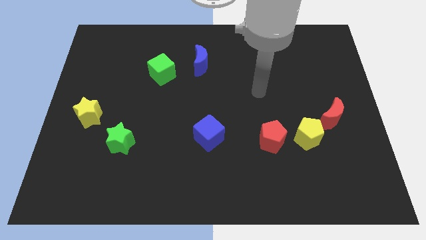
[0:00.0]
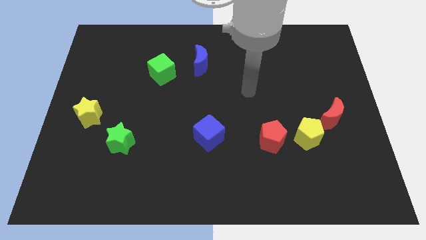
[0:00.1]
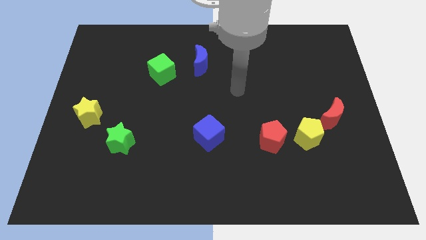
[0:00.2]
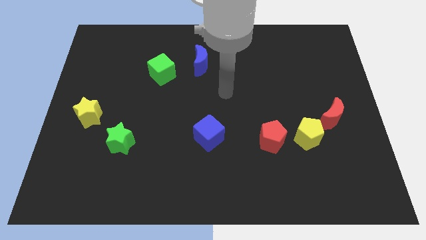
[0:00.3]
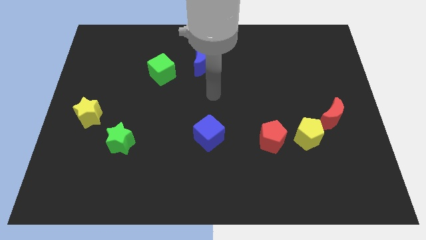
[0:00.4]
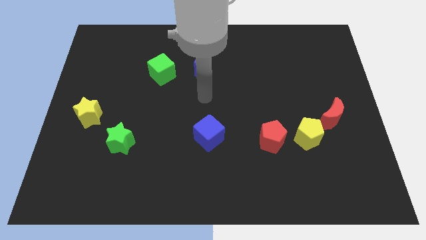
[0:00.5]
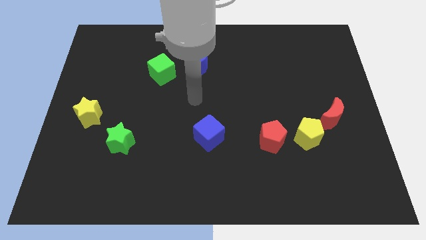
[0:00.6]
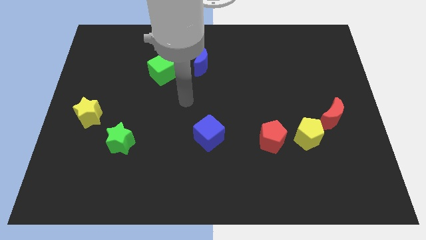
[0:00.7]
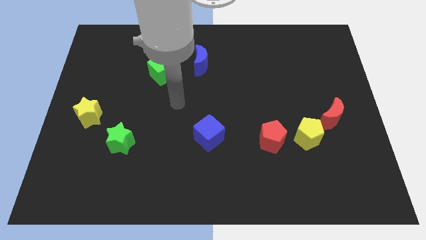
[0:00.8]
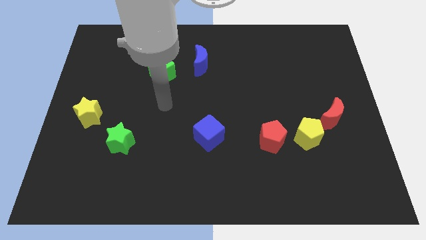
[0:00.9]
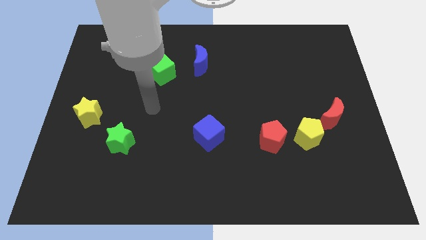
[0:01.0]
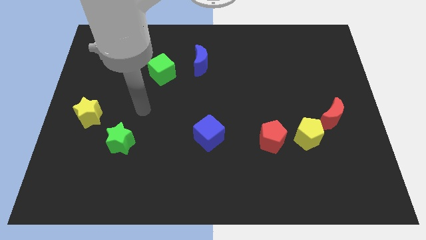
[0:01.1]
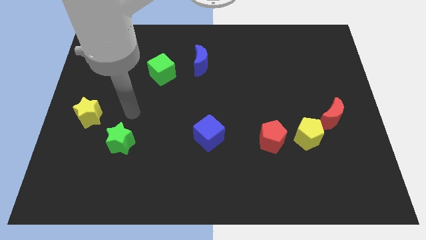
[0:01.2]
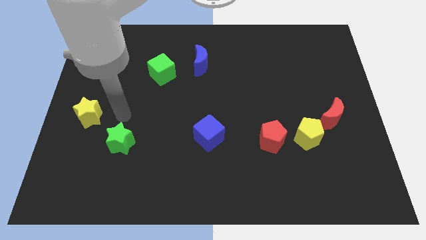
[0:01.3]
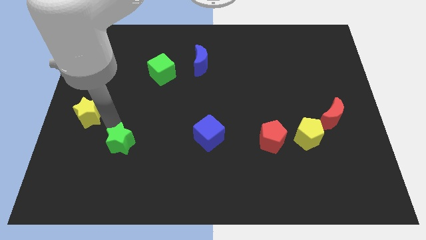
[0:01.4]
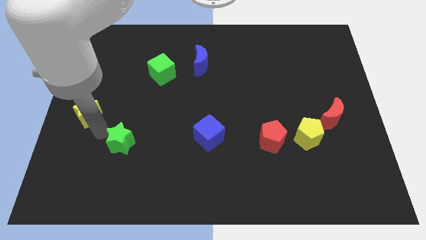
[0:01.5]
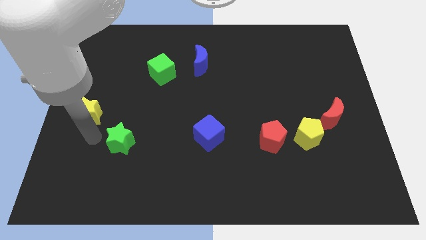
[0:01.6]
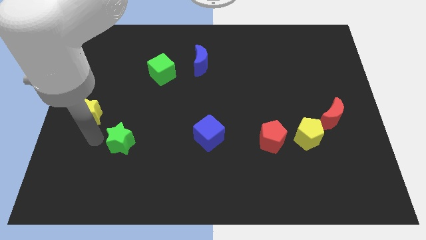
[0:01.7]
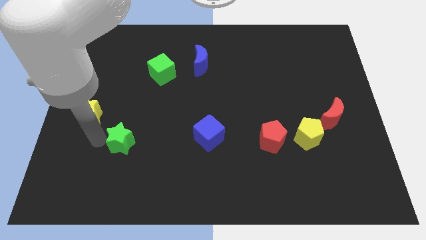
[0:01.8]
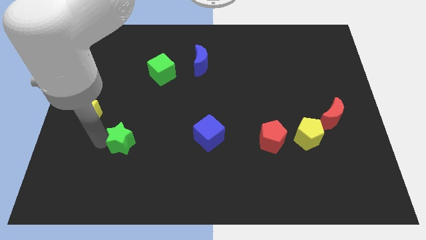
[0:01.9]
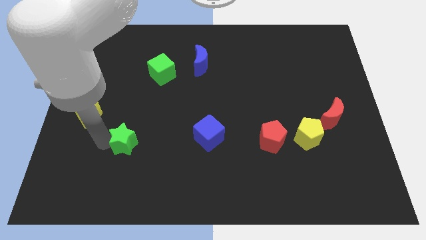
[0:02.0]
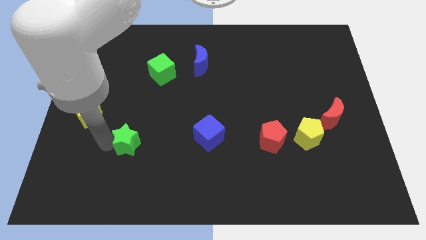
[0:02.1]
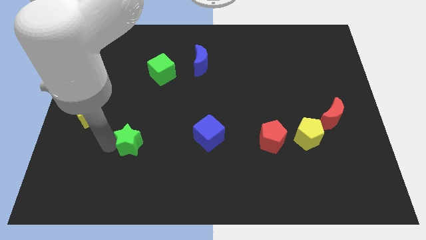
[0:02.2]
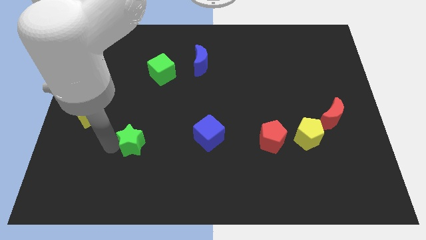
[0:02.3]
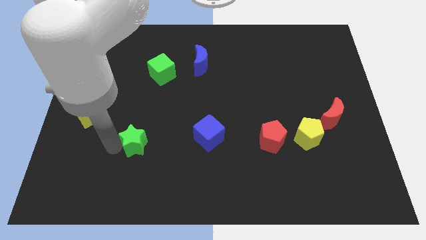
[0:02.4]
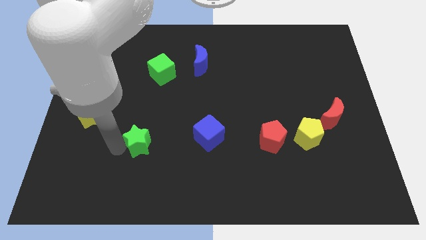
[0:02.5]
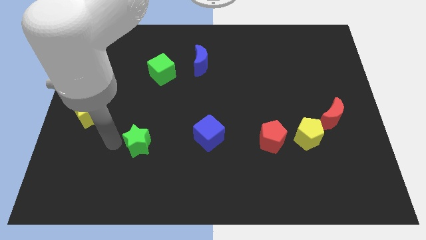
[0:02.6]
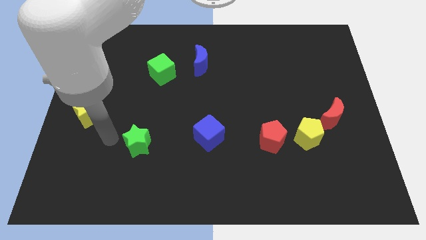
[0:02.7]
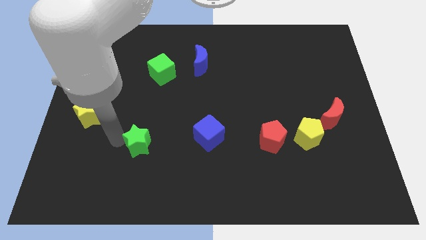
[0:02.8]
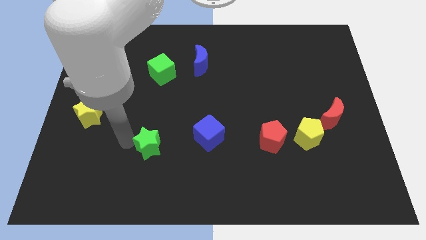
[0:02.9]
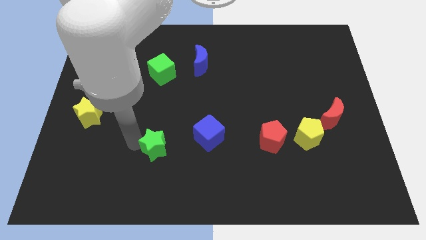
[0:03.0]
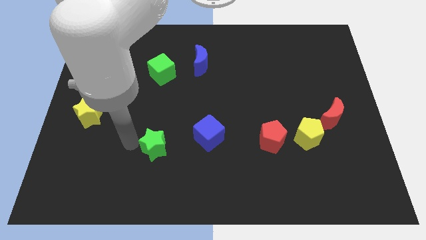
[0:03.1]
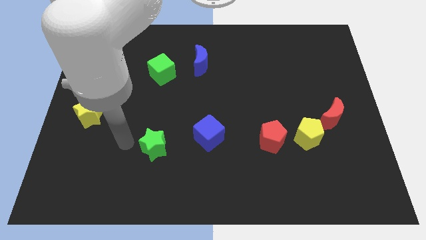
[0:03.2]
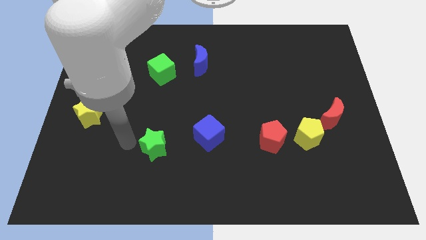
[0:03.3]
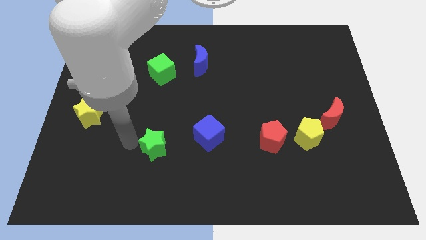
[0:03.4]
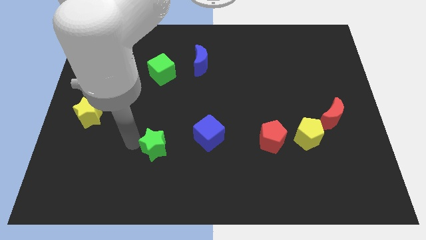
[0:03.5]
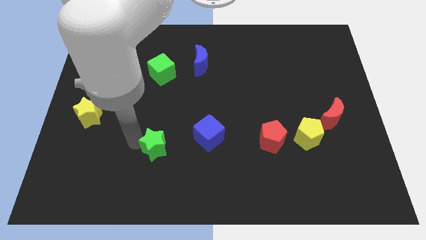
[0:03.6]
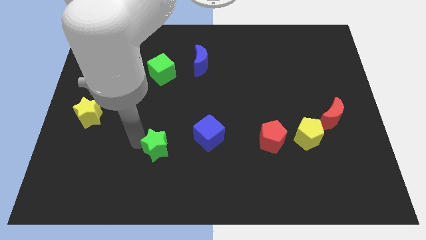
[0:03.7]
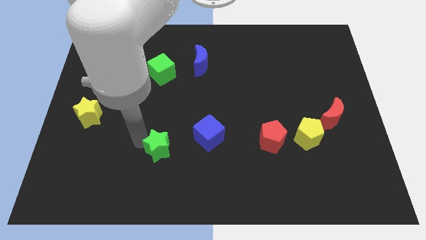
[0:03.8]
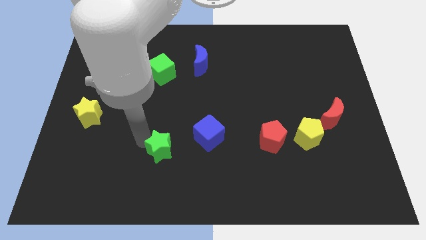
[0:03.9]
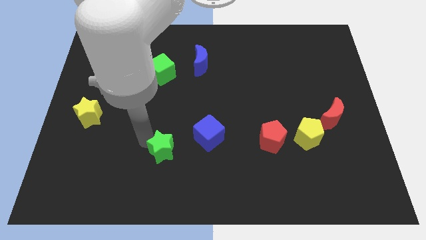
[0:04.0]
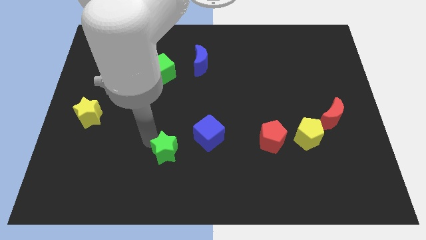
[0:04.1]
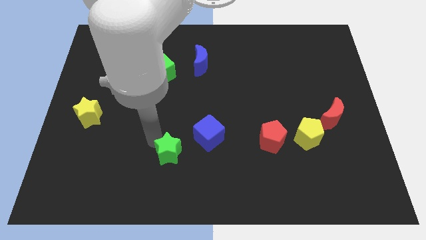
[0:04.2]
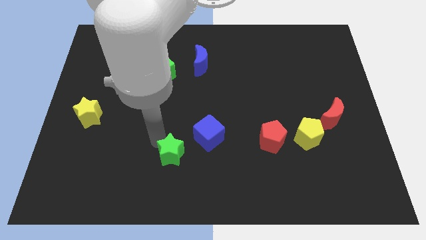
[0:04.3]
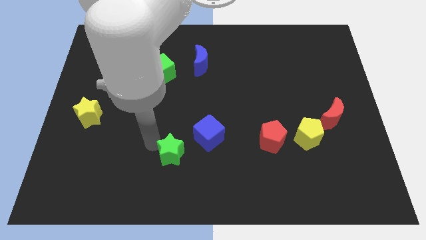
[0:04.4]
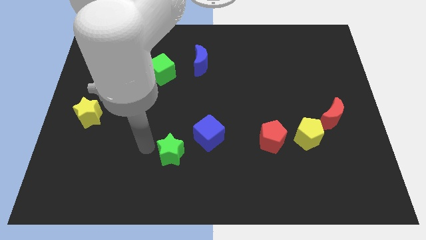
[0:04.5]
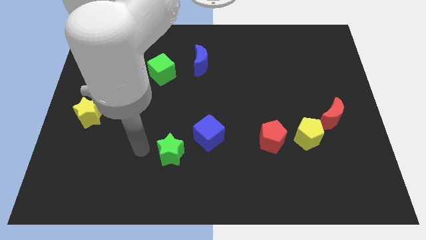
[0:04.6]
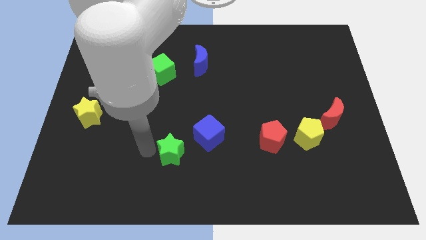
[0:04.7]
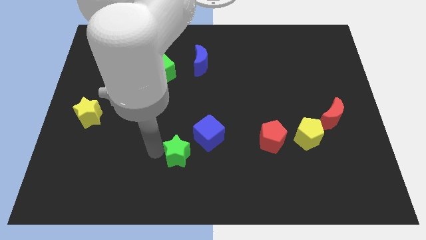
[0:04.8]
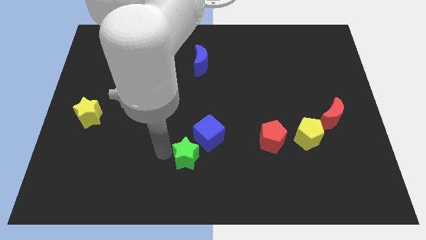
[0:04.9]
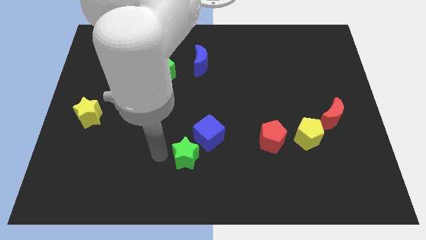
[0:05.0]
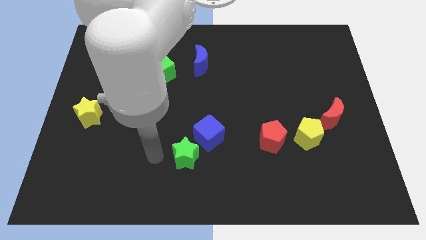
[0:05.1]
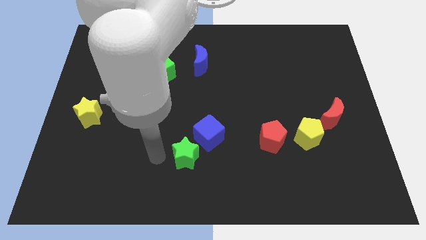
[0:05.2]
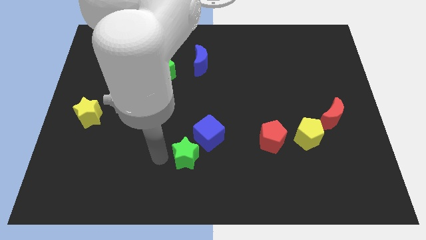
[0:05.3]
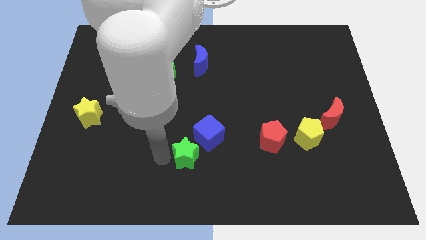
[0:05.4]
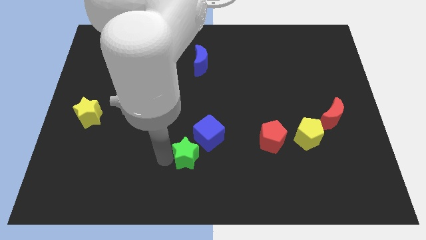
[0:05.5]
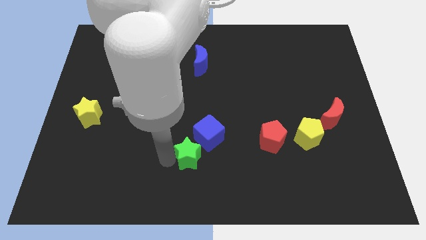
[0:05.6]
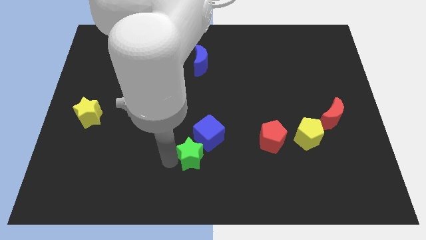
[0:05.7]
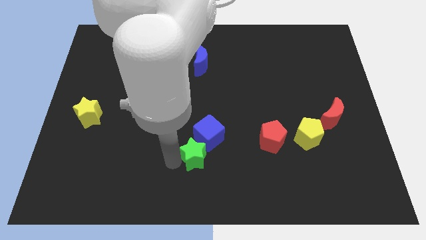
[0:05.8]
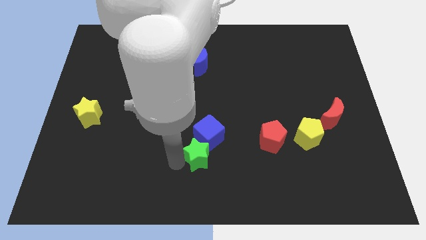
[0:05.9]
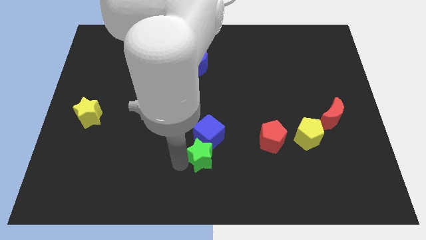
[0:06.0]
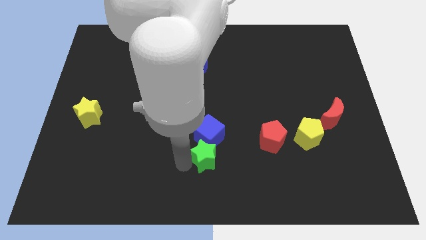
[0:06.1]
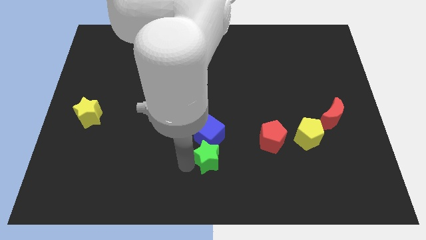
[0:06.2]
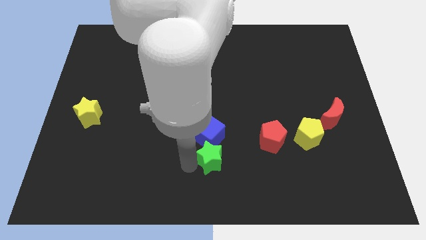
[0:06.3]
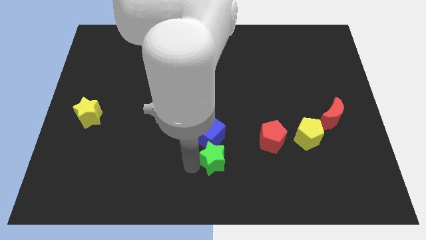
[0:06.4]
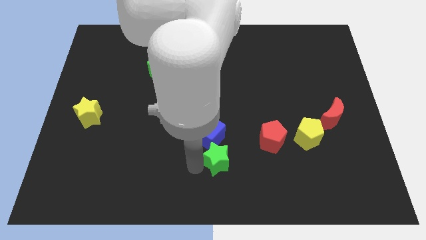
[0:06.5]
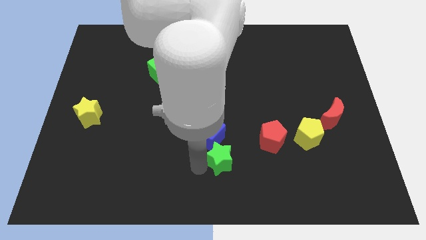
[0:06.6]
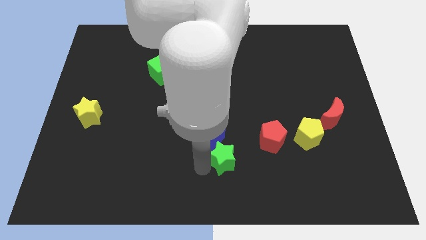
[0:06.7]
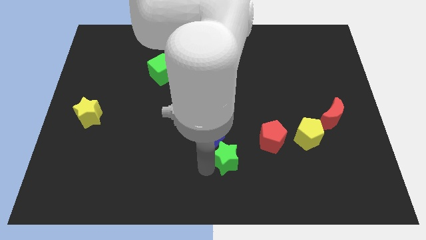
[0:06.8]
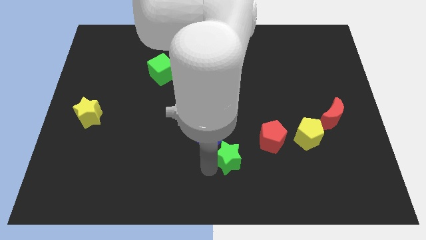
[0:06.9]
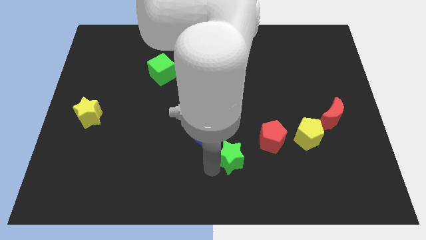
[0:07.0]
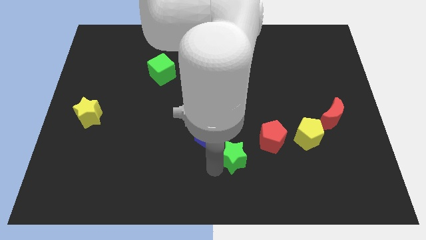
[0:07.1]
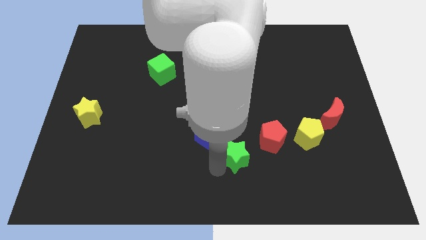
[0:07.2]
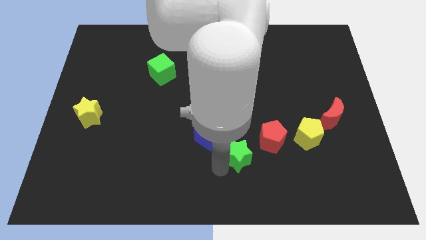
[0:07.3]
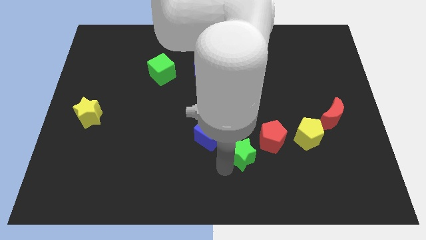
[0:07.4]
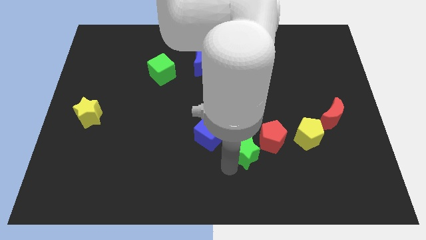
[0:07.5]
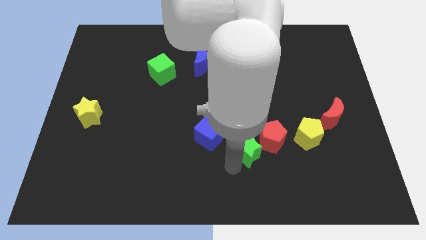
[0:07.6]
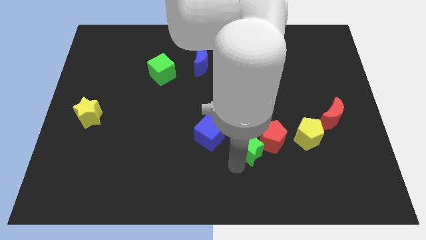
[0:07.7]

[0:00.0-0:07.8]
move the green star close to the red pentagon
